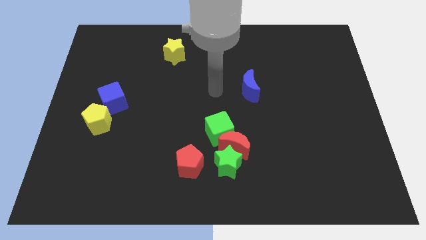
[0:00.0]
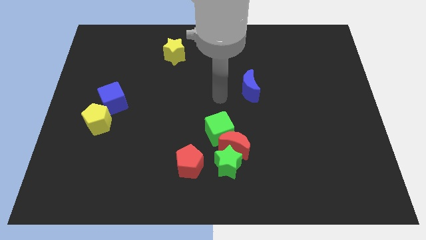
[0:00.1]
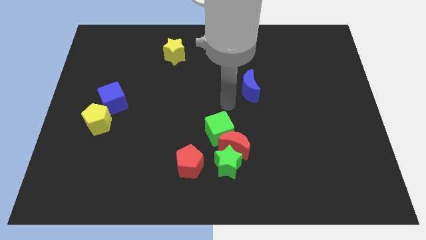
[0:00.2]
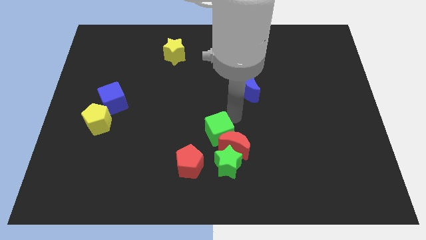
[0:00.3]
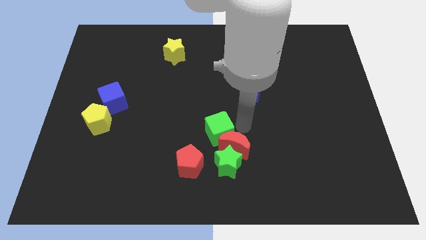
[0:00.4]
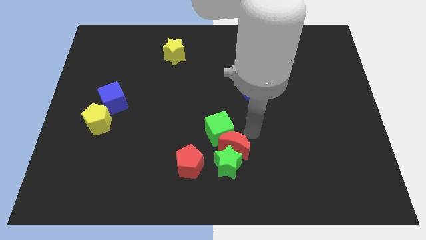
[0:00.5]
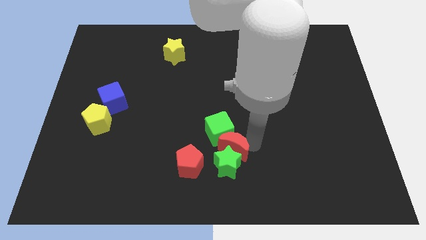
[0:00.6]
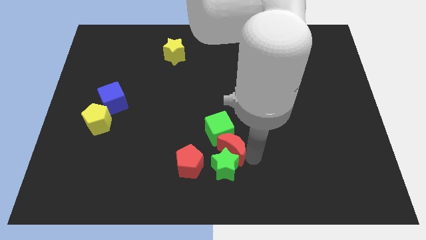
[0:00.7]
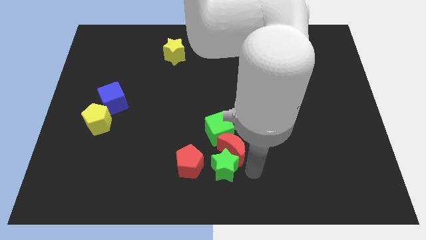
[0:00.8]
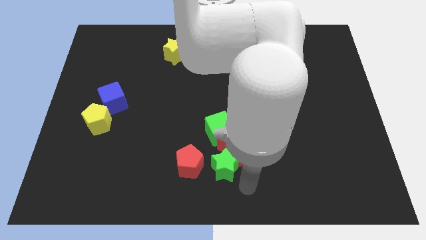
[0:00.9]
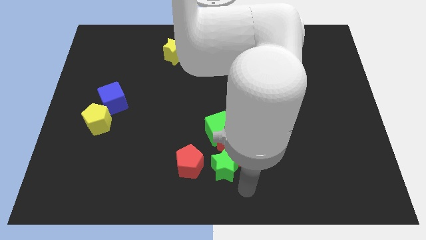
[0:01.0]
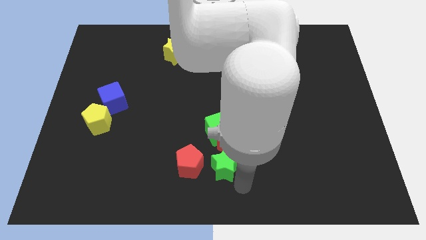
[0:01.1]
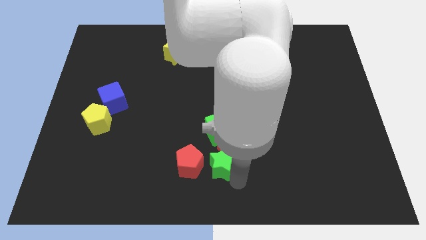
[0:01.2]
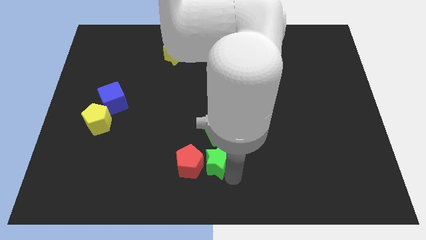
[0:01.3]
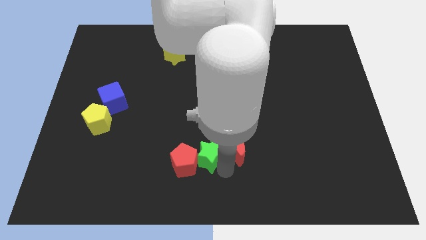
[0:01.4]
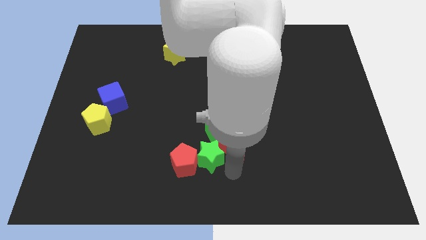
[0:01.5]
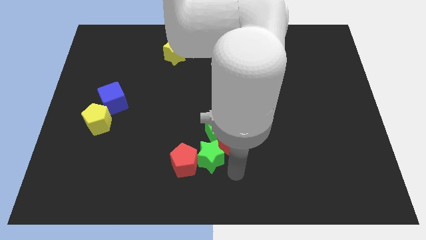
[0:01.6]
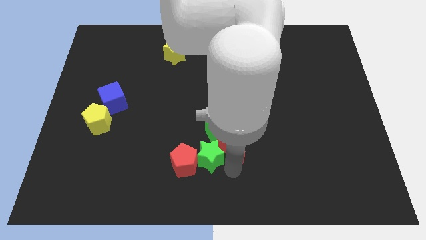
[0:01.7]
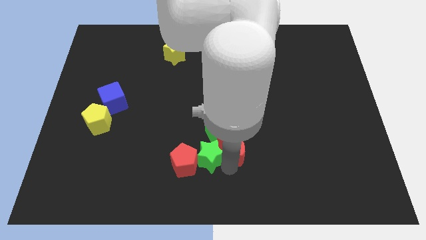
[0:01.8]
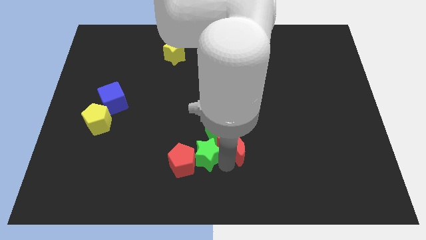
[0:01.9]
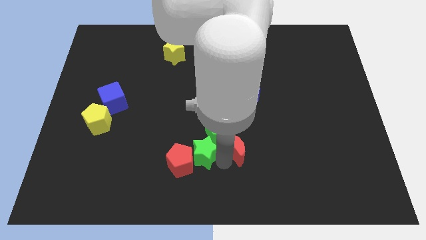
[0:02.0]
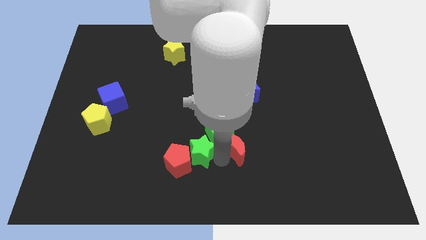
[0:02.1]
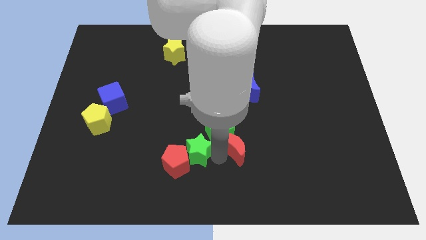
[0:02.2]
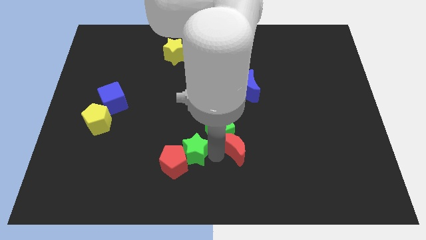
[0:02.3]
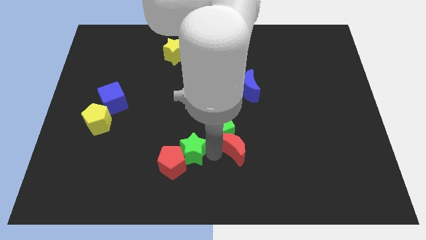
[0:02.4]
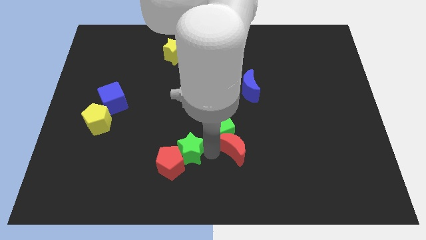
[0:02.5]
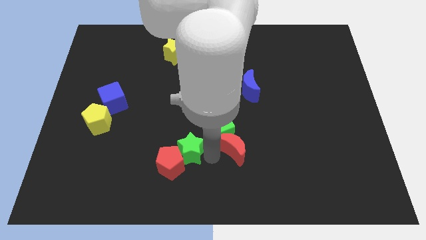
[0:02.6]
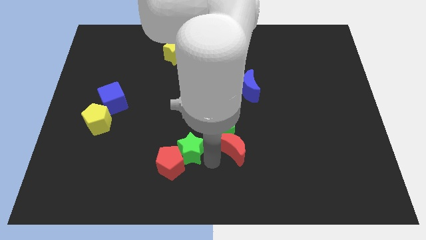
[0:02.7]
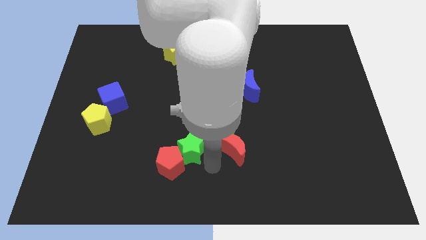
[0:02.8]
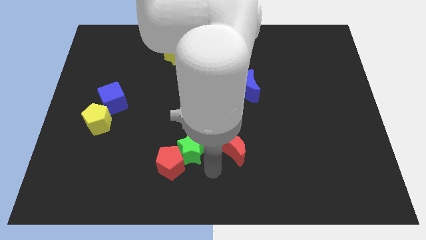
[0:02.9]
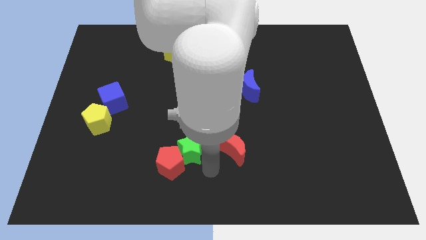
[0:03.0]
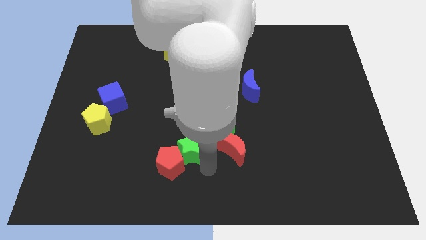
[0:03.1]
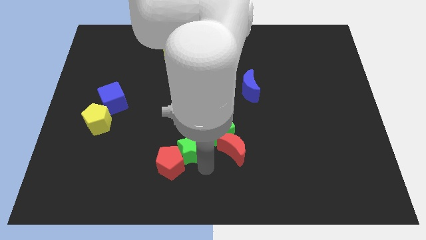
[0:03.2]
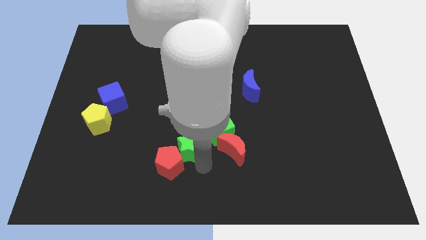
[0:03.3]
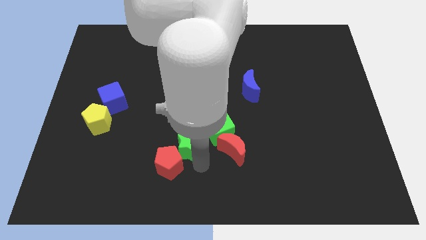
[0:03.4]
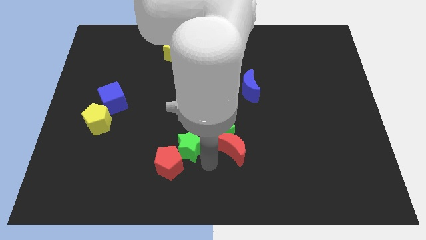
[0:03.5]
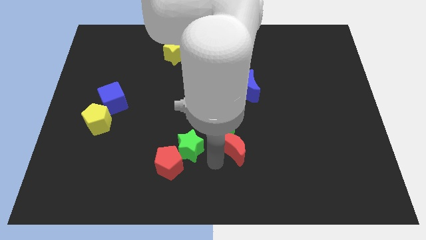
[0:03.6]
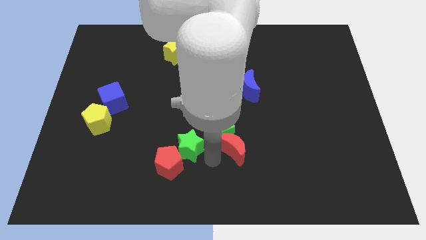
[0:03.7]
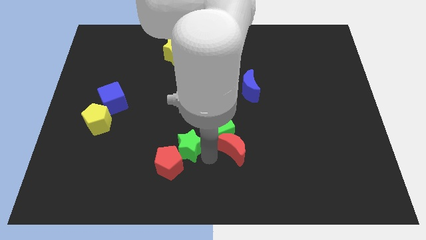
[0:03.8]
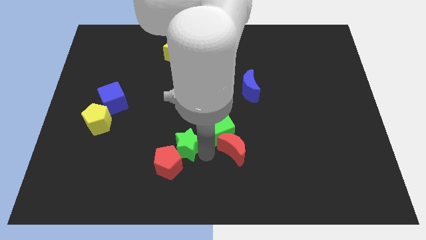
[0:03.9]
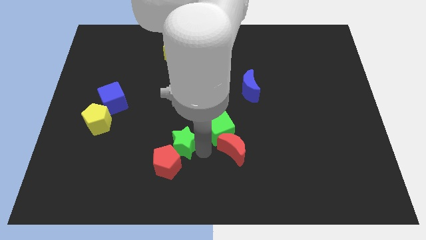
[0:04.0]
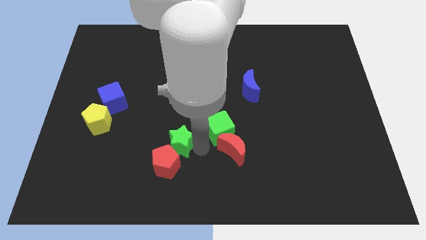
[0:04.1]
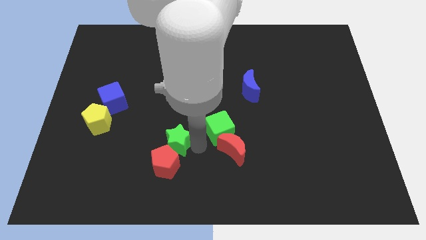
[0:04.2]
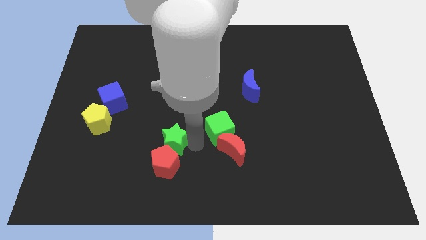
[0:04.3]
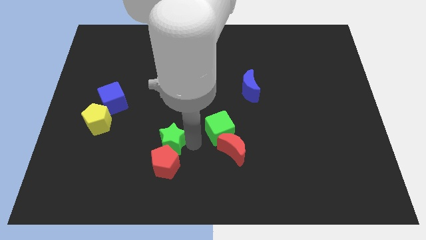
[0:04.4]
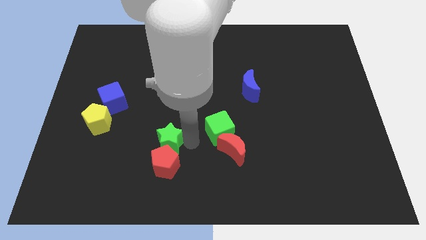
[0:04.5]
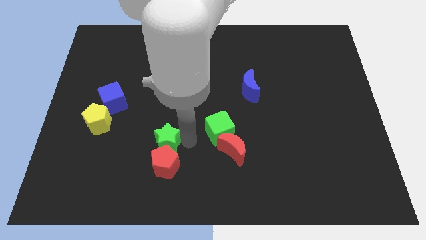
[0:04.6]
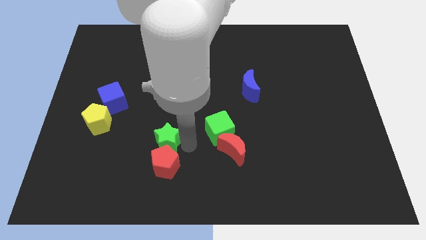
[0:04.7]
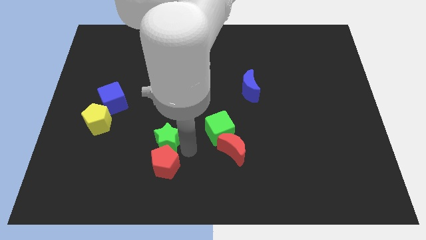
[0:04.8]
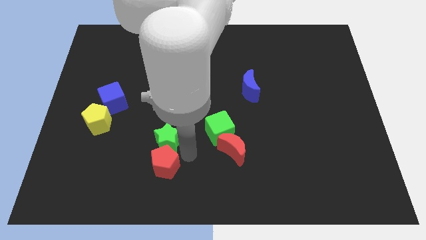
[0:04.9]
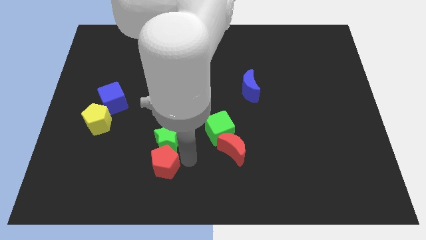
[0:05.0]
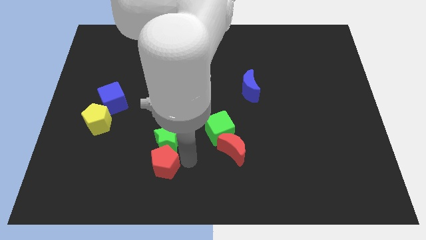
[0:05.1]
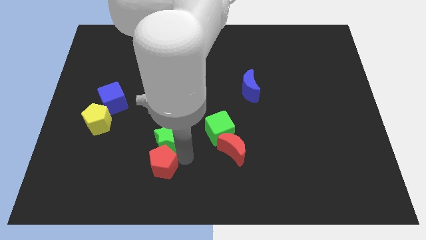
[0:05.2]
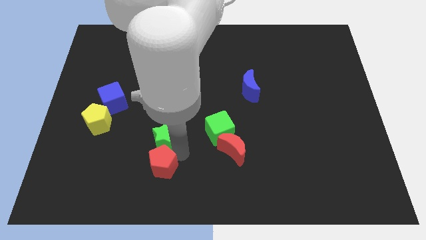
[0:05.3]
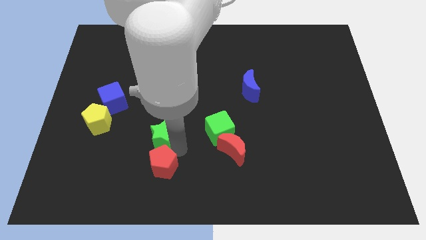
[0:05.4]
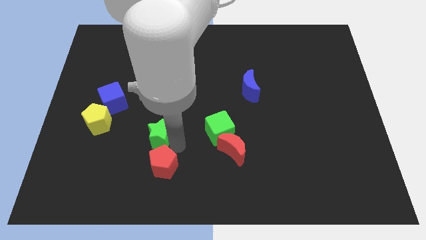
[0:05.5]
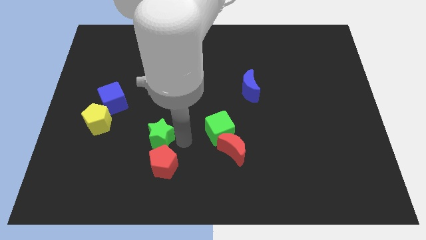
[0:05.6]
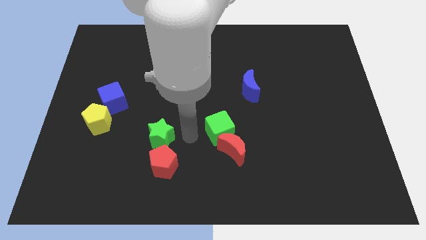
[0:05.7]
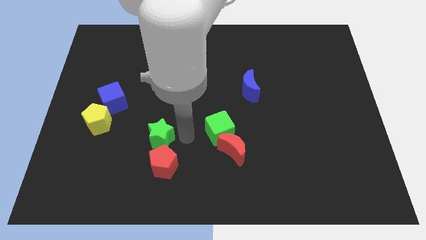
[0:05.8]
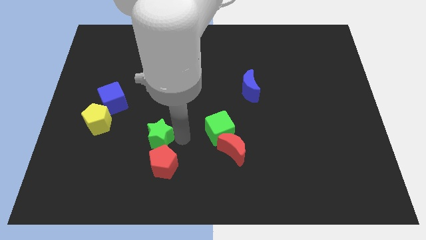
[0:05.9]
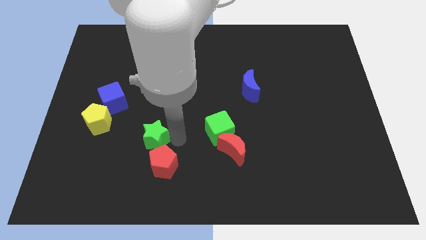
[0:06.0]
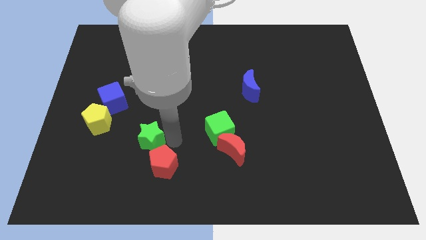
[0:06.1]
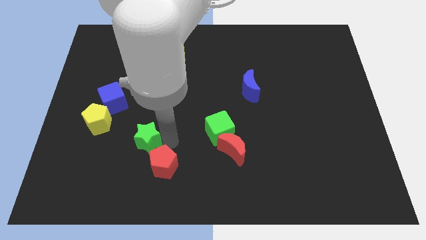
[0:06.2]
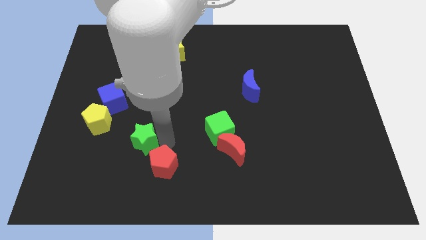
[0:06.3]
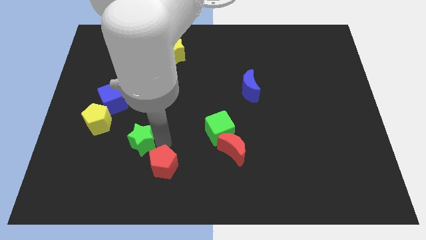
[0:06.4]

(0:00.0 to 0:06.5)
put the green star to the bottom right side of the yellow pentagon

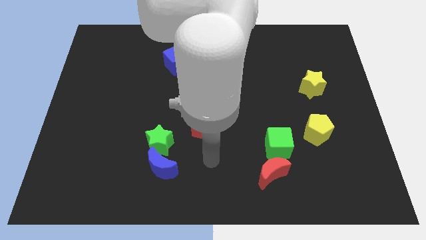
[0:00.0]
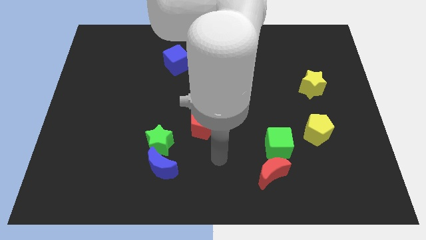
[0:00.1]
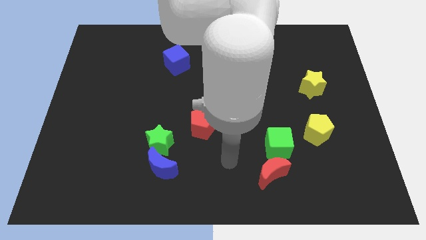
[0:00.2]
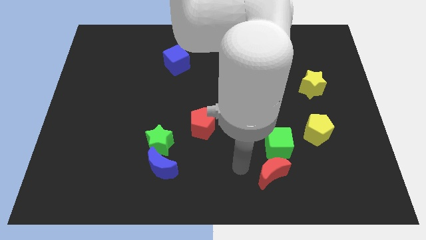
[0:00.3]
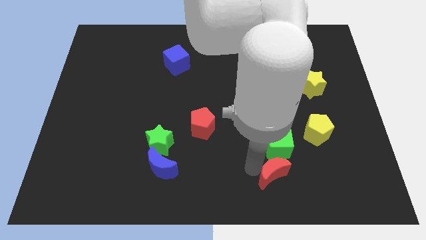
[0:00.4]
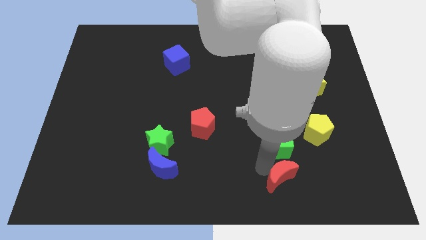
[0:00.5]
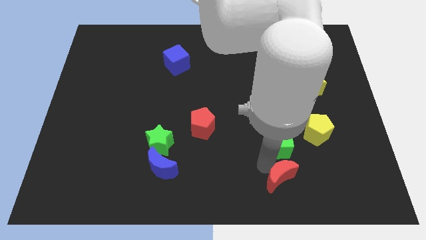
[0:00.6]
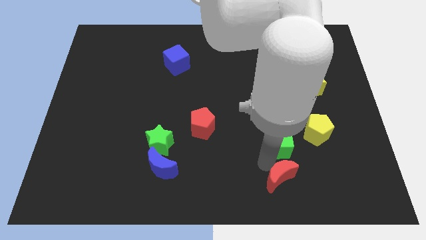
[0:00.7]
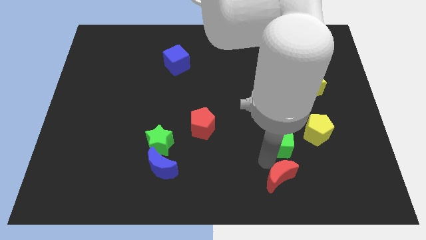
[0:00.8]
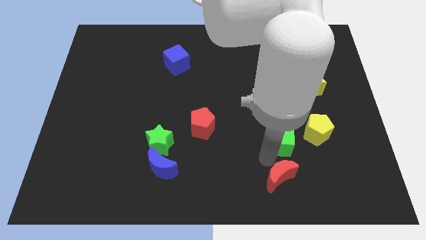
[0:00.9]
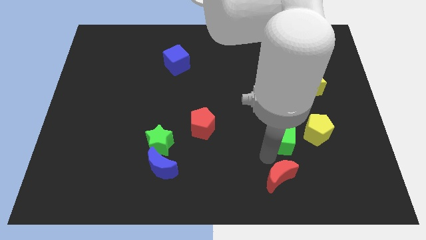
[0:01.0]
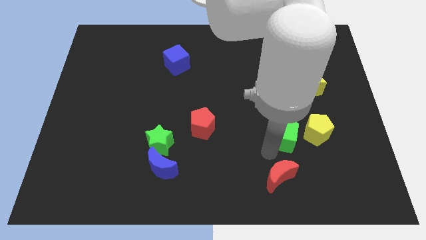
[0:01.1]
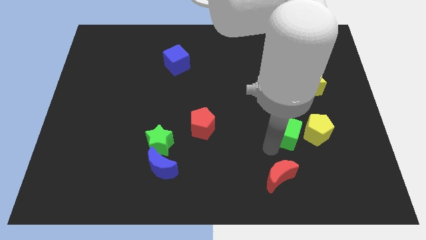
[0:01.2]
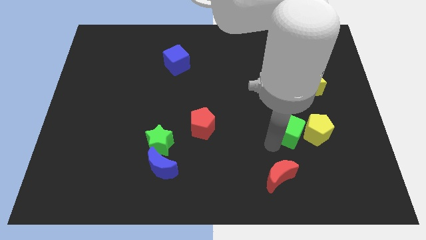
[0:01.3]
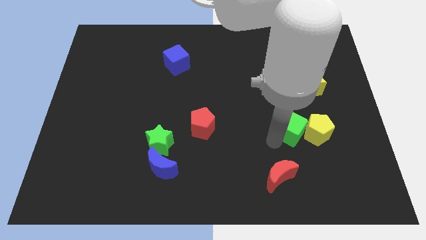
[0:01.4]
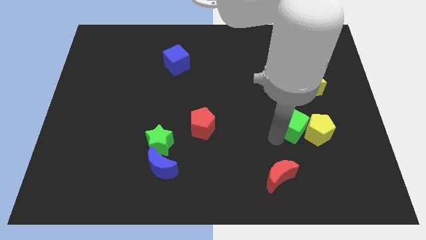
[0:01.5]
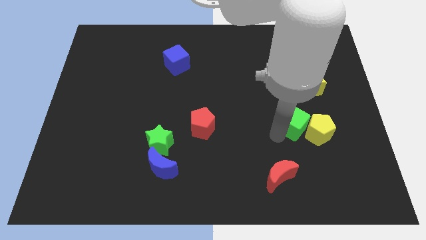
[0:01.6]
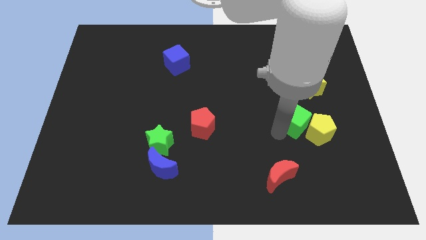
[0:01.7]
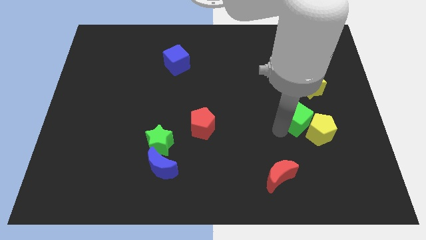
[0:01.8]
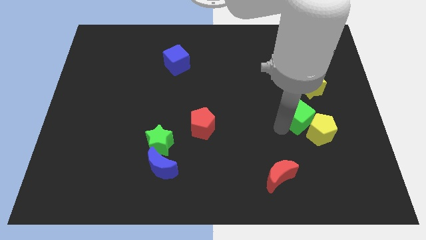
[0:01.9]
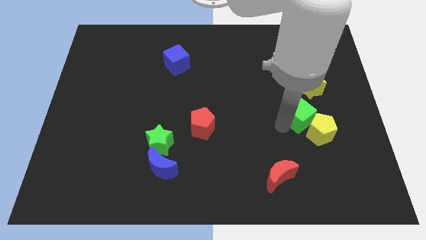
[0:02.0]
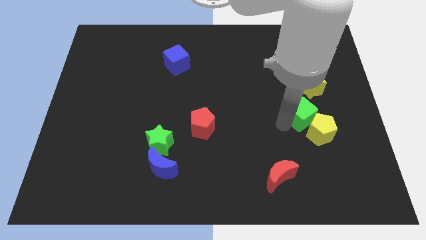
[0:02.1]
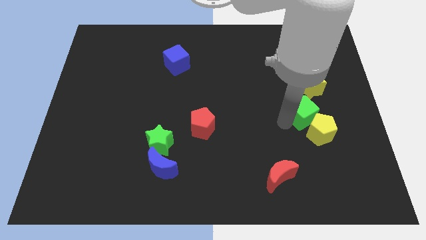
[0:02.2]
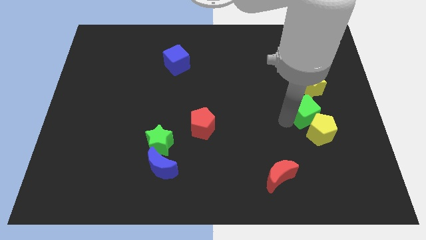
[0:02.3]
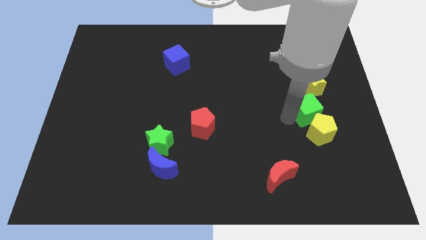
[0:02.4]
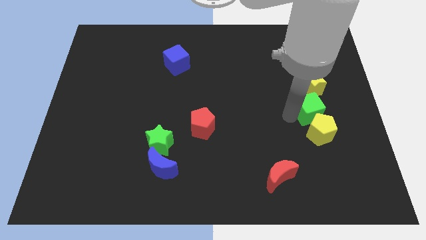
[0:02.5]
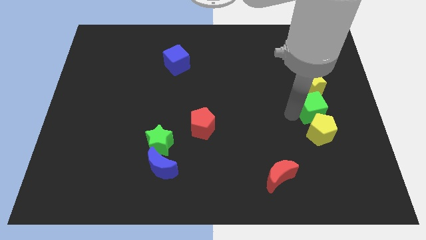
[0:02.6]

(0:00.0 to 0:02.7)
move the green cube diagonally up and to the right of the yellow pentagon
